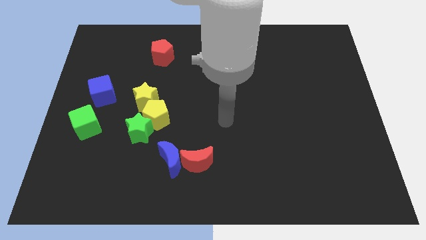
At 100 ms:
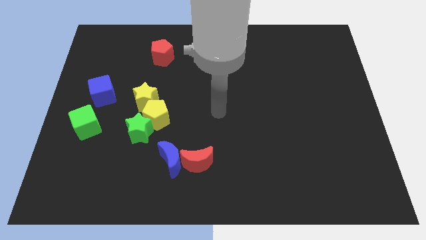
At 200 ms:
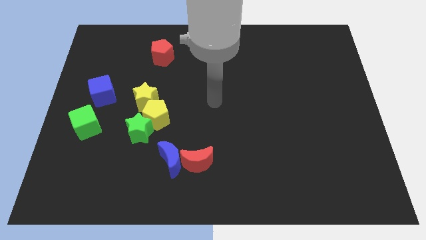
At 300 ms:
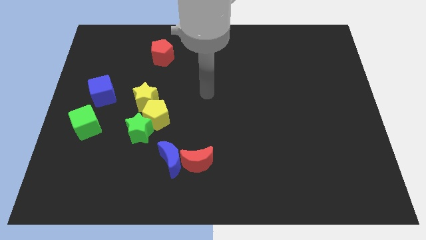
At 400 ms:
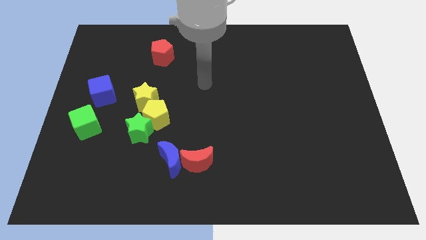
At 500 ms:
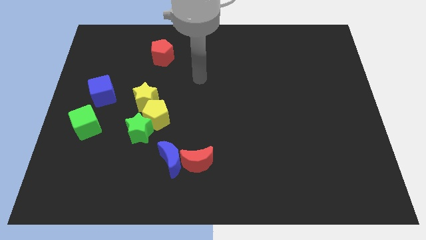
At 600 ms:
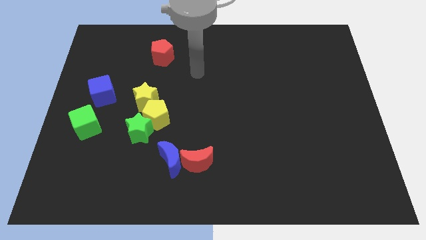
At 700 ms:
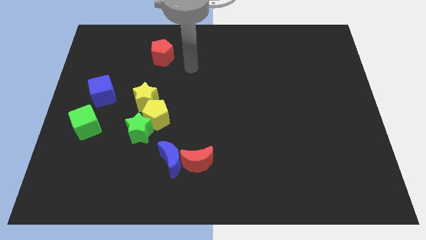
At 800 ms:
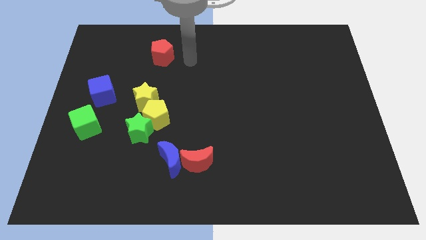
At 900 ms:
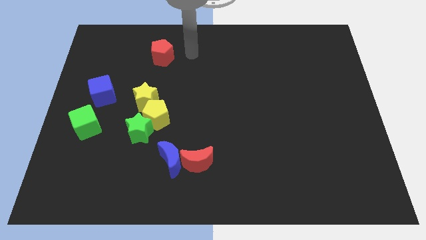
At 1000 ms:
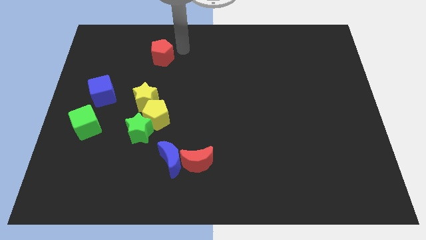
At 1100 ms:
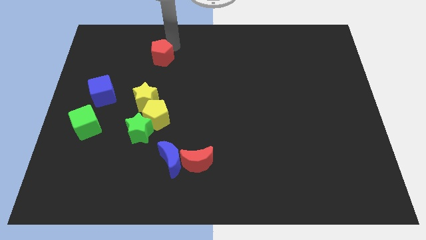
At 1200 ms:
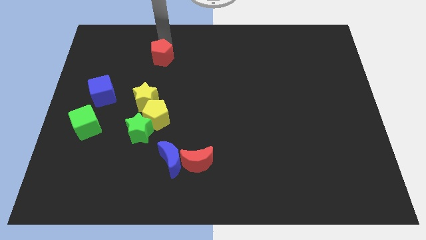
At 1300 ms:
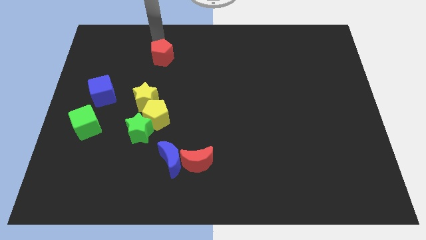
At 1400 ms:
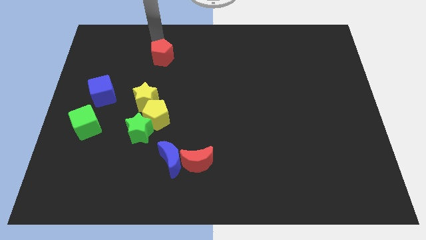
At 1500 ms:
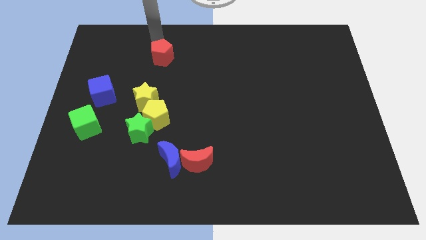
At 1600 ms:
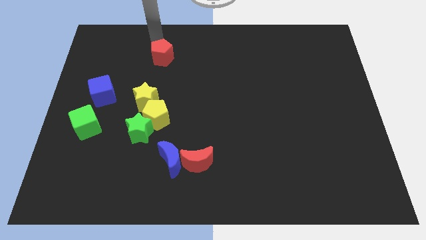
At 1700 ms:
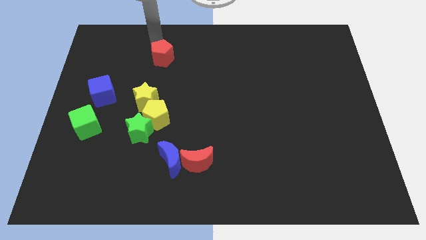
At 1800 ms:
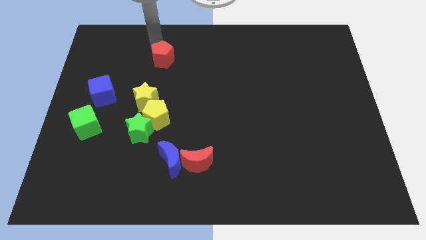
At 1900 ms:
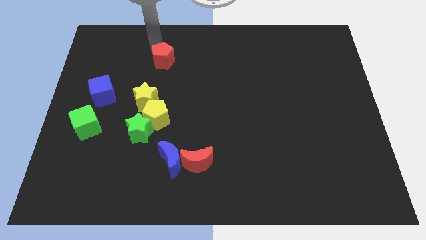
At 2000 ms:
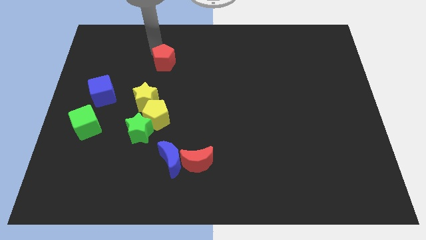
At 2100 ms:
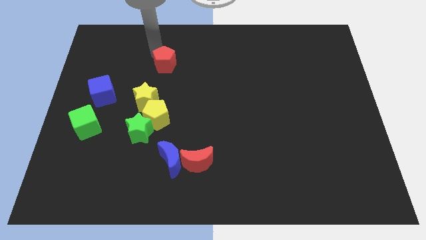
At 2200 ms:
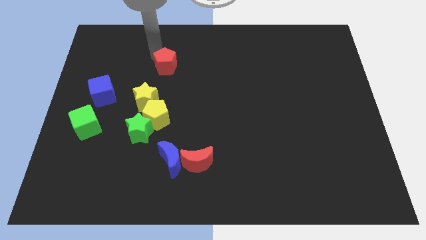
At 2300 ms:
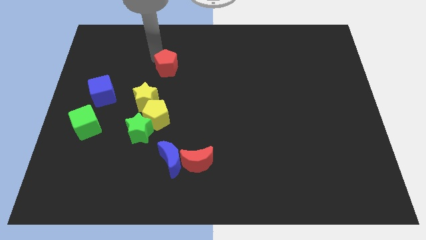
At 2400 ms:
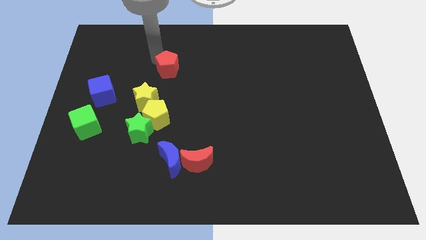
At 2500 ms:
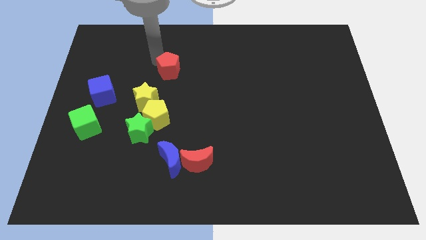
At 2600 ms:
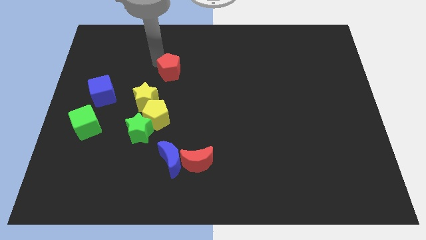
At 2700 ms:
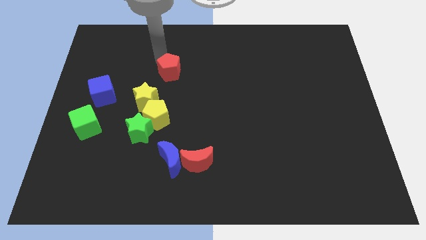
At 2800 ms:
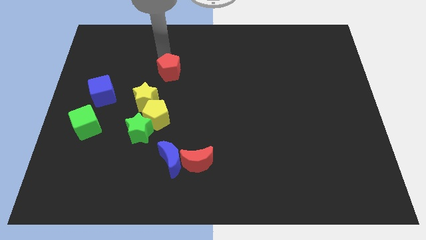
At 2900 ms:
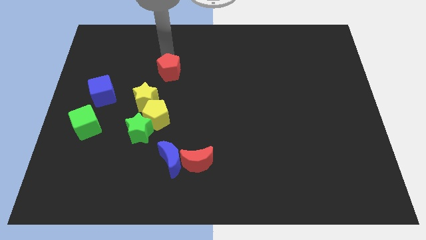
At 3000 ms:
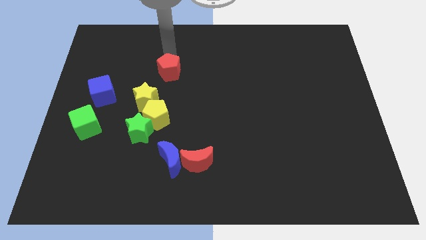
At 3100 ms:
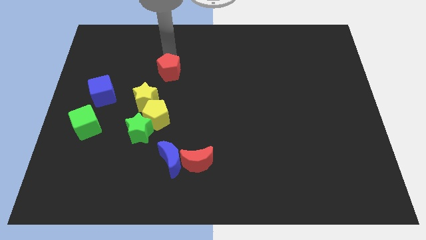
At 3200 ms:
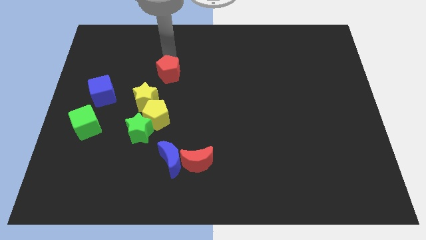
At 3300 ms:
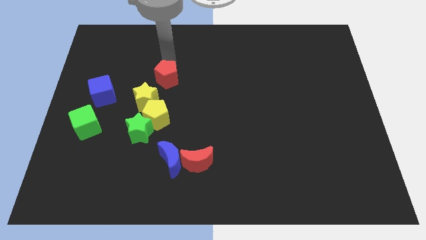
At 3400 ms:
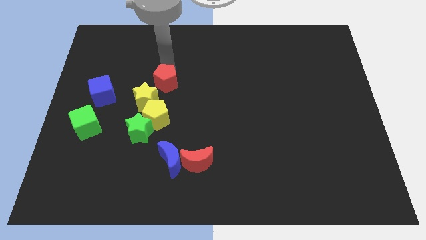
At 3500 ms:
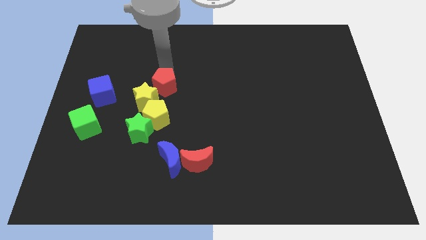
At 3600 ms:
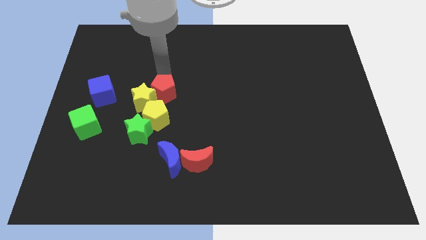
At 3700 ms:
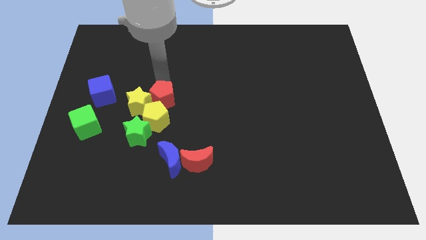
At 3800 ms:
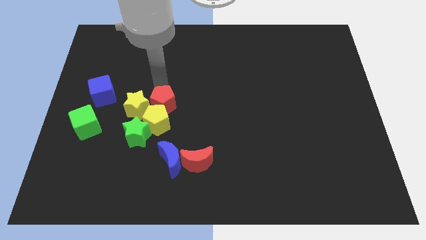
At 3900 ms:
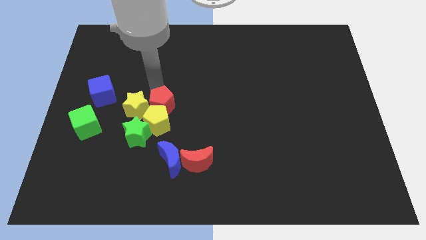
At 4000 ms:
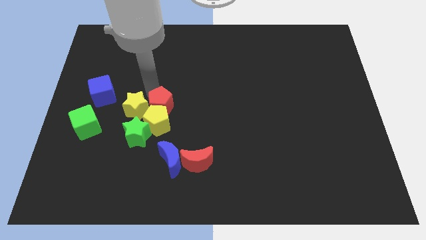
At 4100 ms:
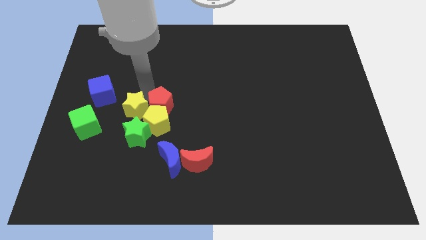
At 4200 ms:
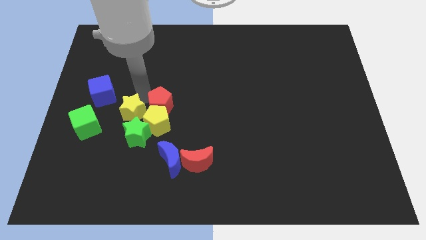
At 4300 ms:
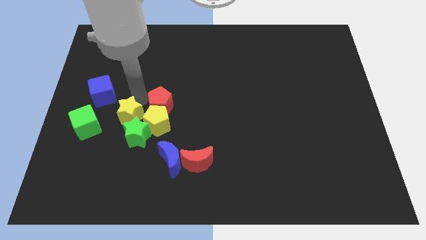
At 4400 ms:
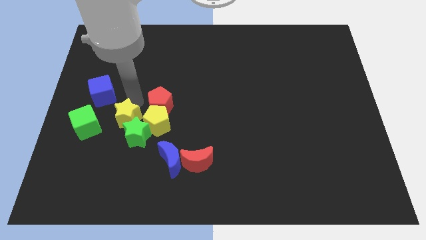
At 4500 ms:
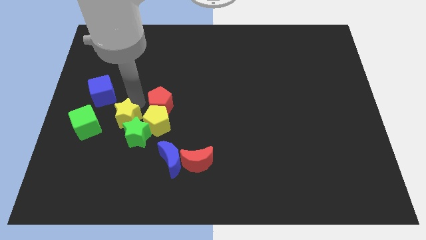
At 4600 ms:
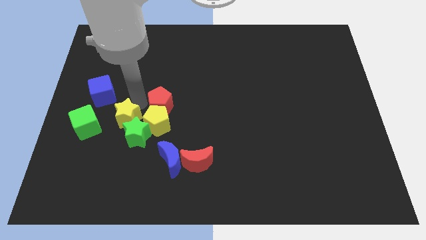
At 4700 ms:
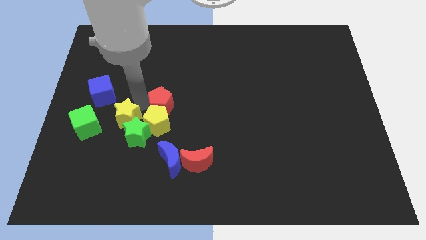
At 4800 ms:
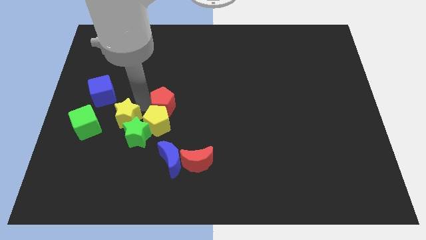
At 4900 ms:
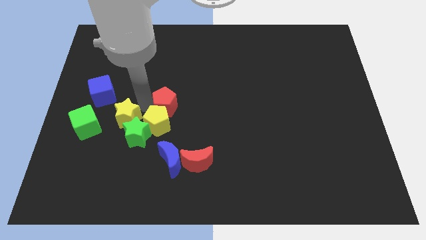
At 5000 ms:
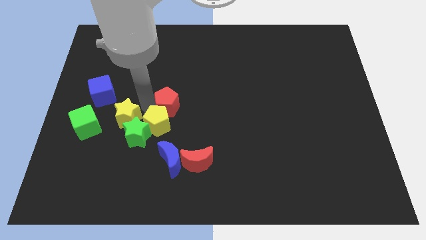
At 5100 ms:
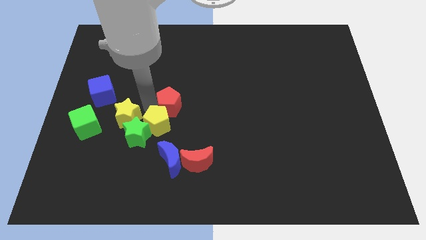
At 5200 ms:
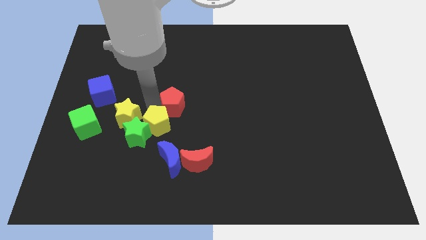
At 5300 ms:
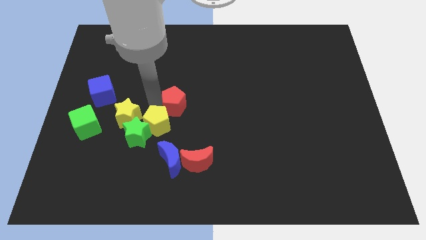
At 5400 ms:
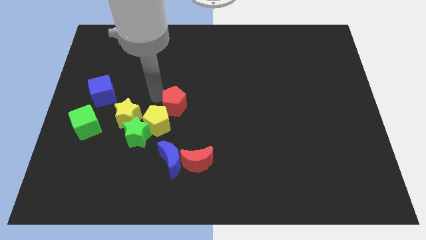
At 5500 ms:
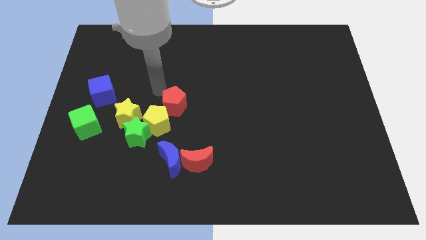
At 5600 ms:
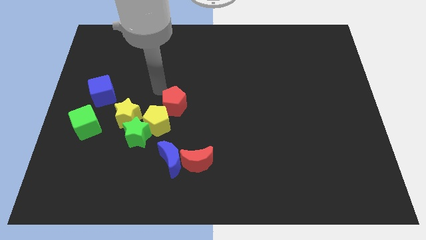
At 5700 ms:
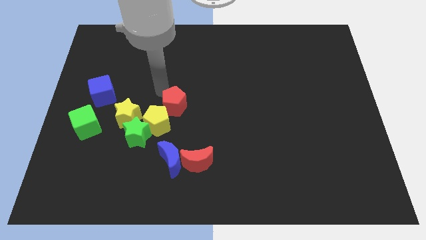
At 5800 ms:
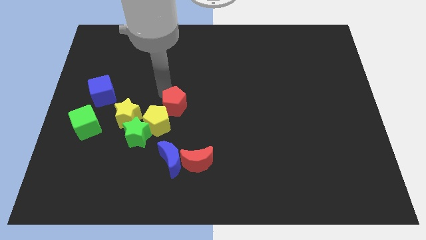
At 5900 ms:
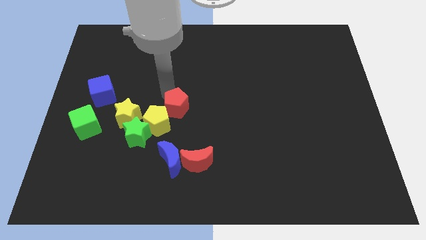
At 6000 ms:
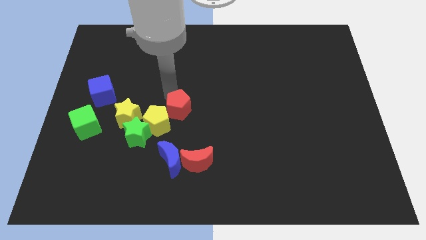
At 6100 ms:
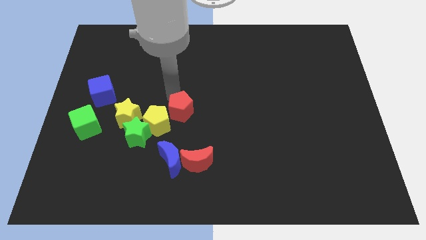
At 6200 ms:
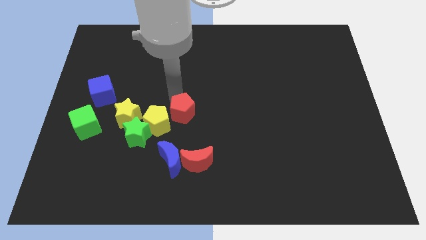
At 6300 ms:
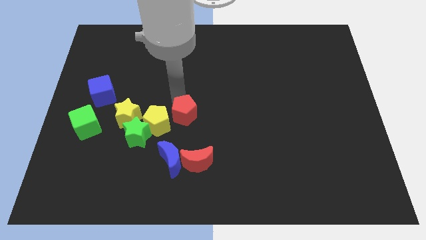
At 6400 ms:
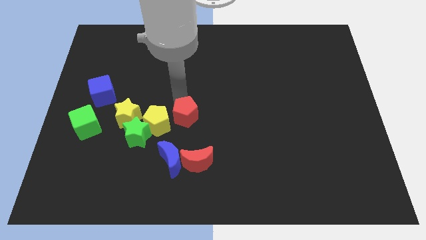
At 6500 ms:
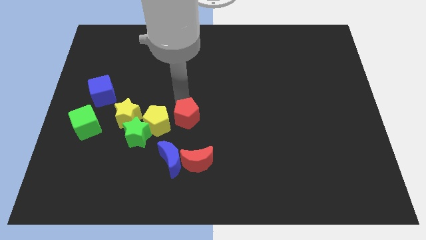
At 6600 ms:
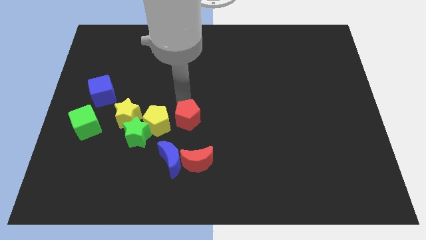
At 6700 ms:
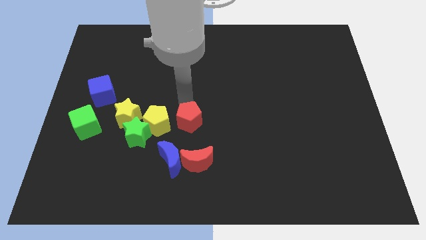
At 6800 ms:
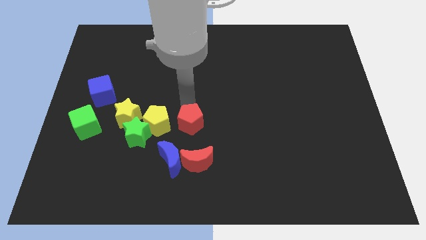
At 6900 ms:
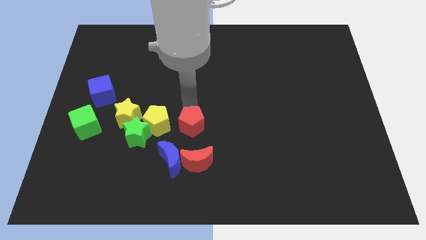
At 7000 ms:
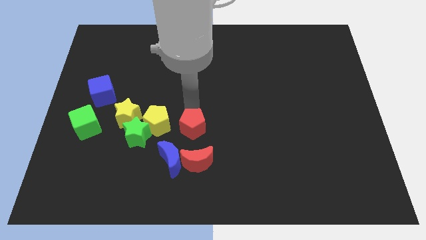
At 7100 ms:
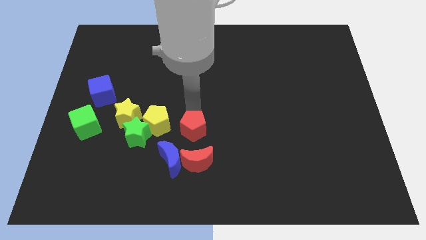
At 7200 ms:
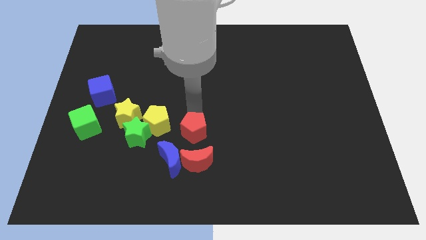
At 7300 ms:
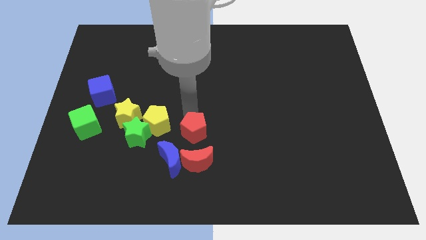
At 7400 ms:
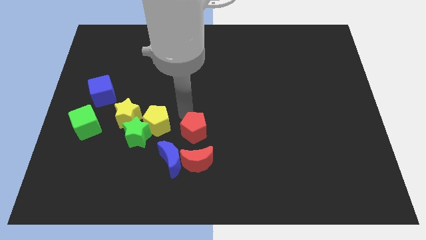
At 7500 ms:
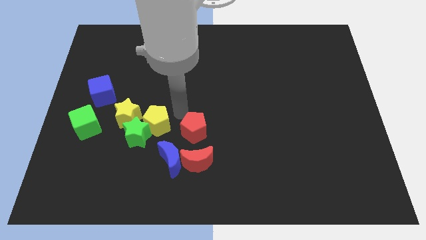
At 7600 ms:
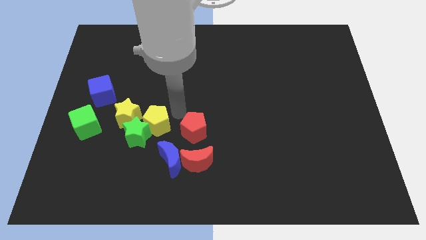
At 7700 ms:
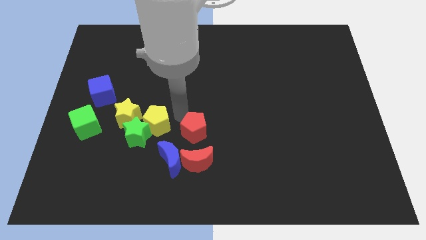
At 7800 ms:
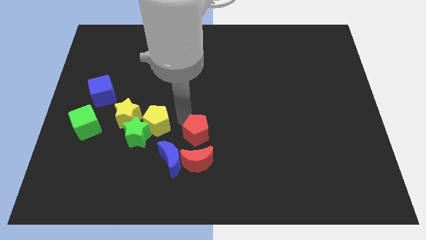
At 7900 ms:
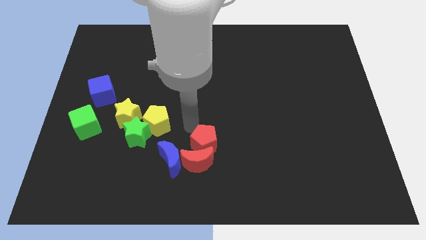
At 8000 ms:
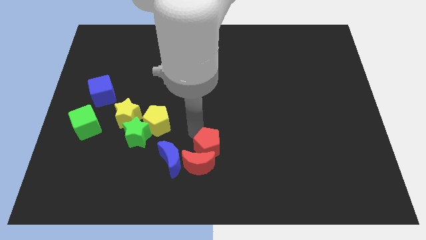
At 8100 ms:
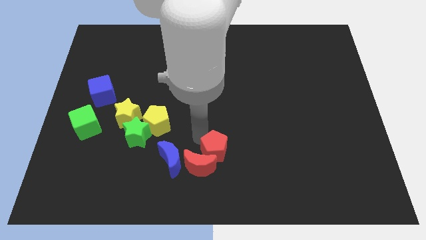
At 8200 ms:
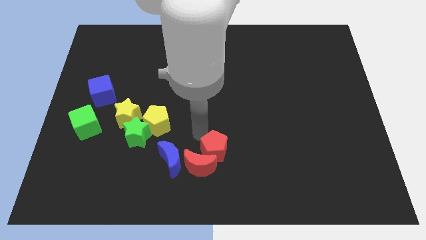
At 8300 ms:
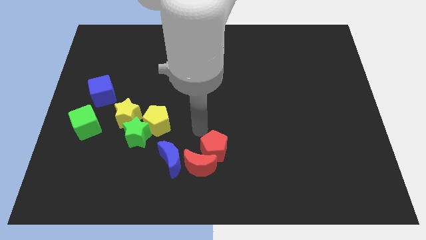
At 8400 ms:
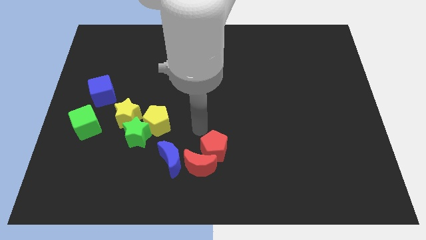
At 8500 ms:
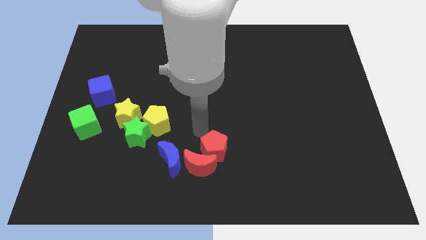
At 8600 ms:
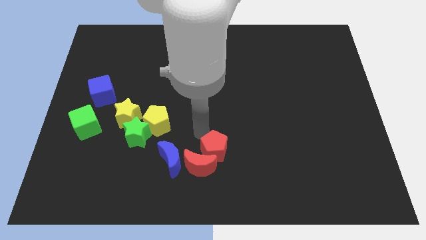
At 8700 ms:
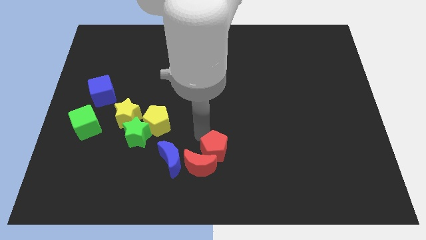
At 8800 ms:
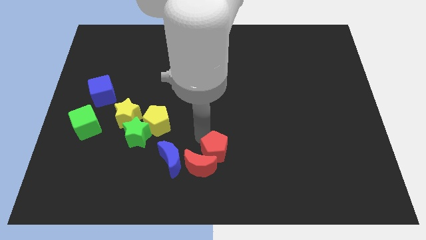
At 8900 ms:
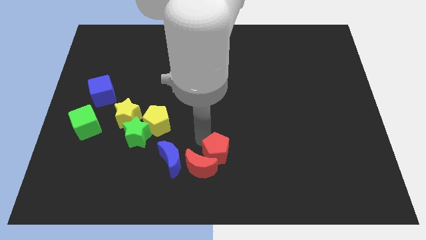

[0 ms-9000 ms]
push the red pentagon to the bottom
